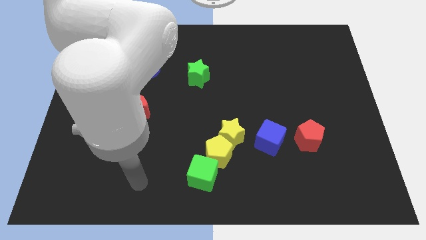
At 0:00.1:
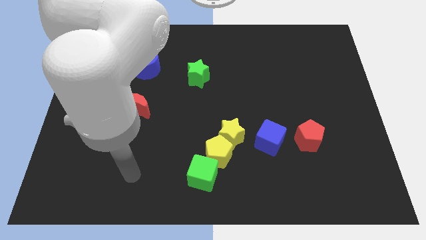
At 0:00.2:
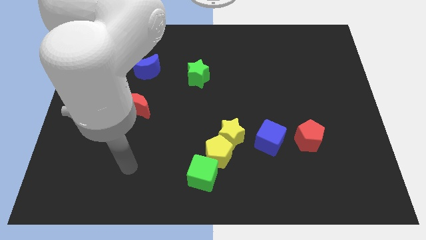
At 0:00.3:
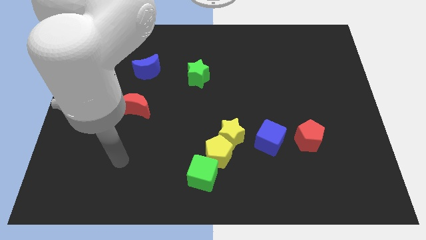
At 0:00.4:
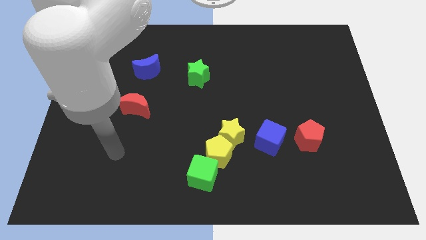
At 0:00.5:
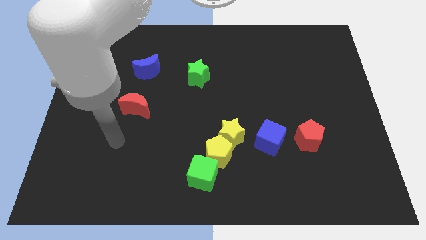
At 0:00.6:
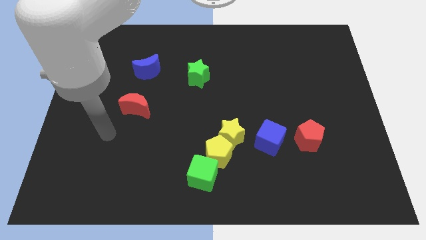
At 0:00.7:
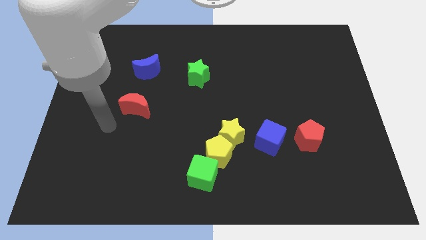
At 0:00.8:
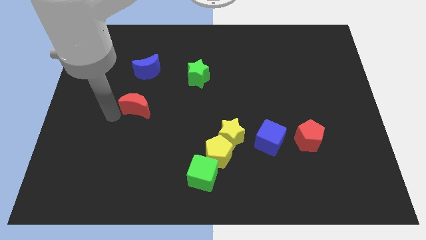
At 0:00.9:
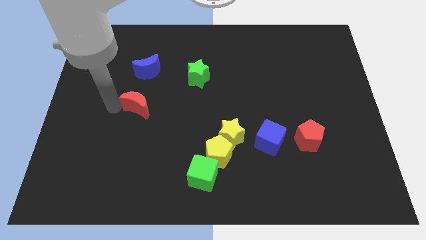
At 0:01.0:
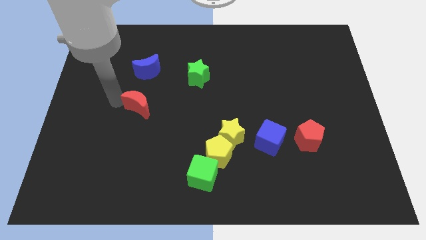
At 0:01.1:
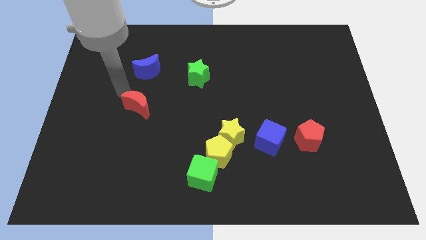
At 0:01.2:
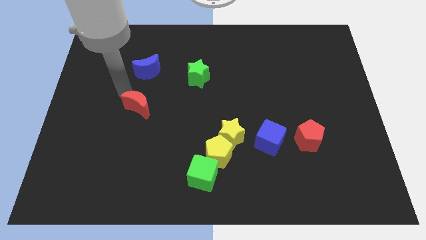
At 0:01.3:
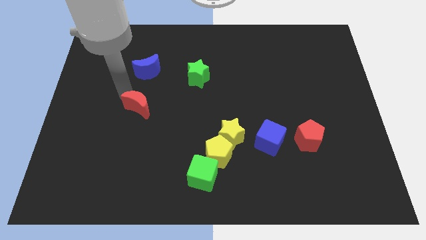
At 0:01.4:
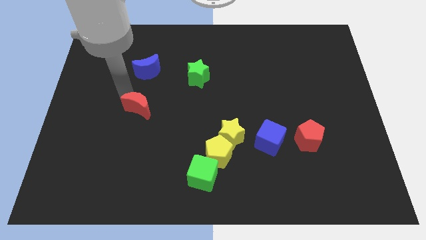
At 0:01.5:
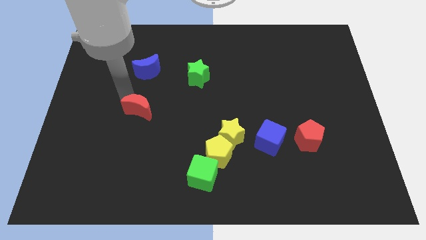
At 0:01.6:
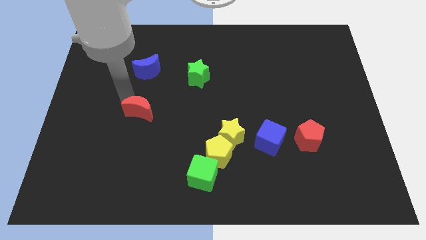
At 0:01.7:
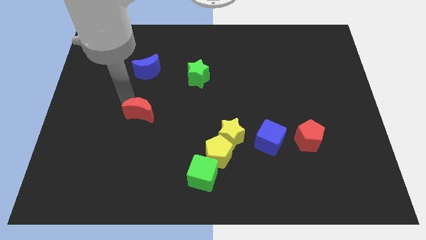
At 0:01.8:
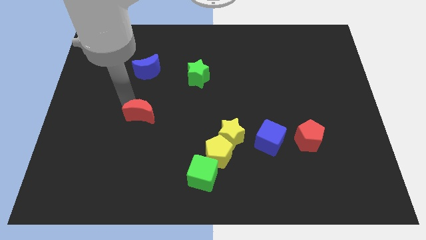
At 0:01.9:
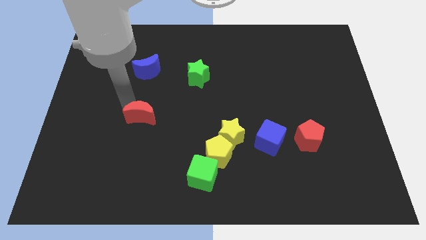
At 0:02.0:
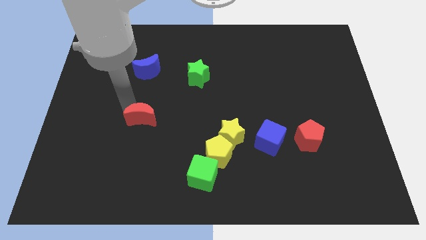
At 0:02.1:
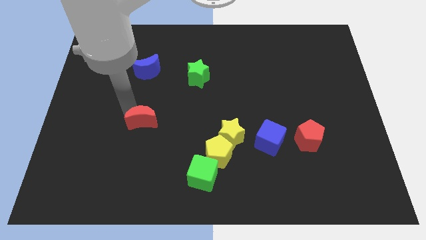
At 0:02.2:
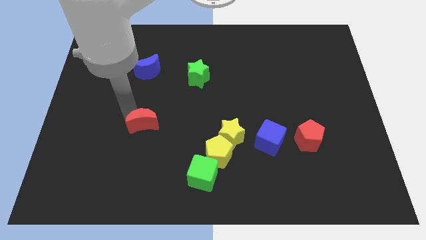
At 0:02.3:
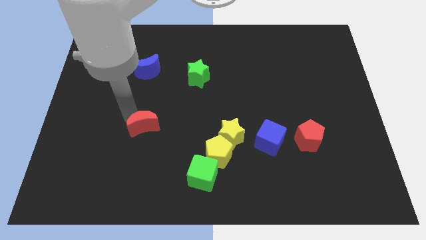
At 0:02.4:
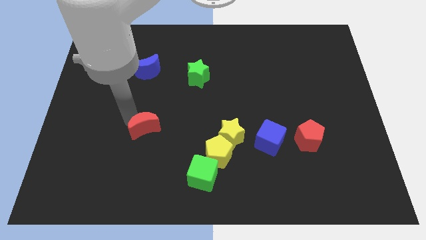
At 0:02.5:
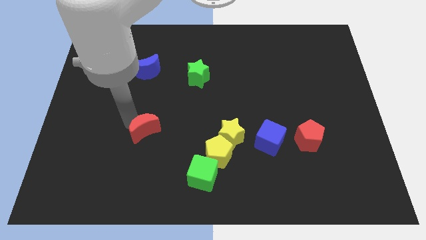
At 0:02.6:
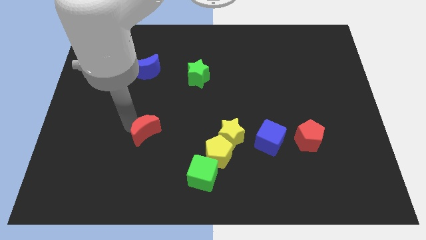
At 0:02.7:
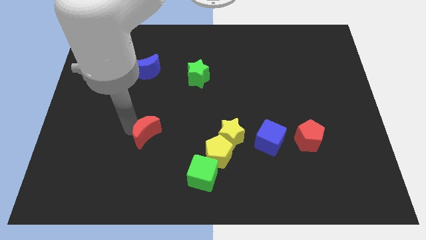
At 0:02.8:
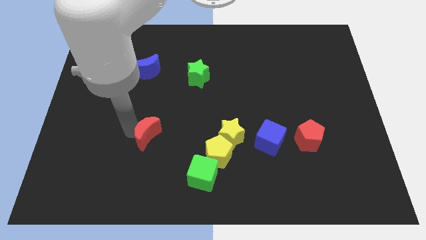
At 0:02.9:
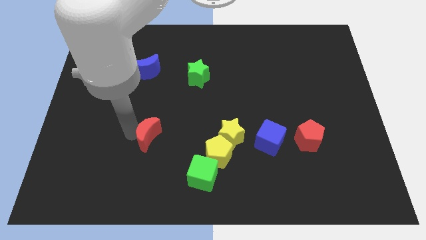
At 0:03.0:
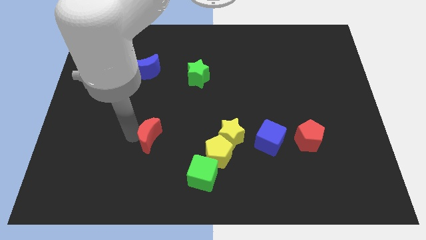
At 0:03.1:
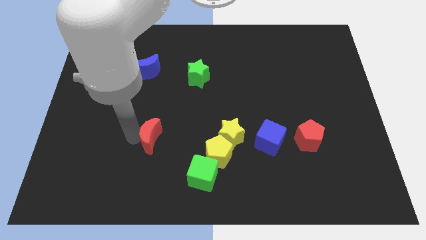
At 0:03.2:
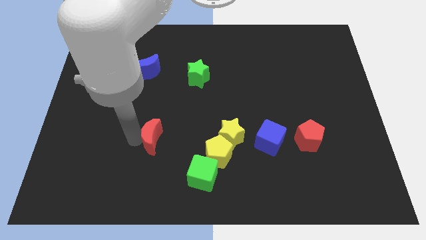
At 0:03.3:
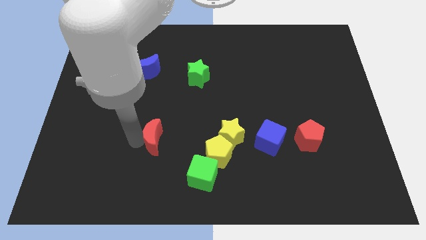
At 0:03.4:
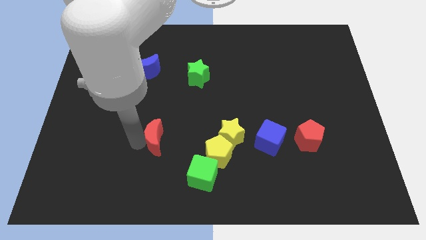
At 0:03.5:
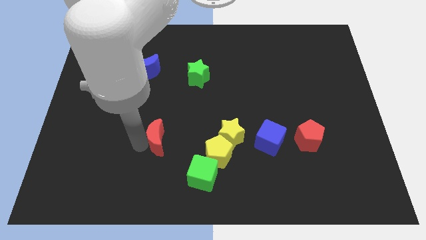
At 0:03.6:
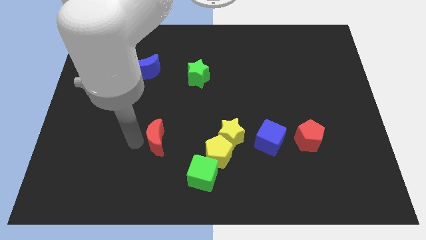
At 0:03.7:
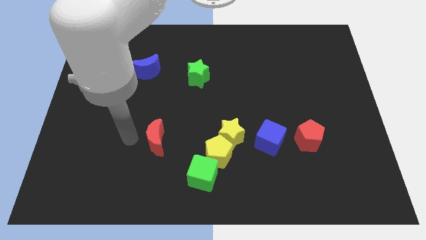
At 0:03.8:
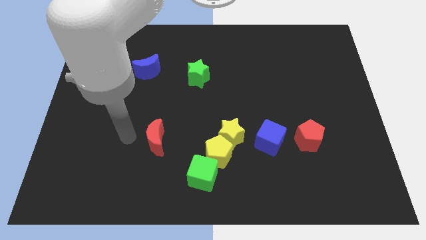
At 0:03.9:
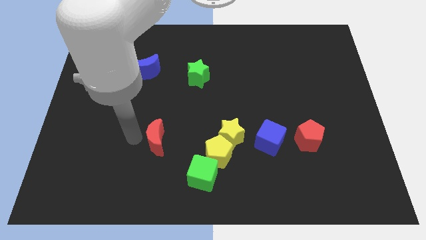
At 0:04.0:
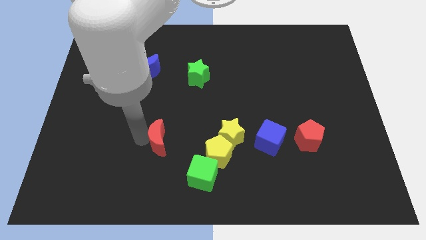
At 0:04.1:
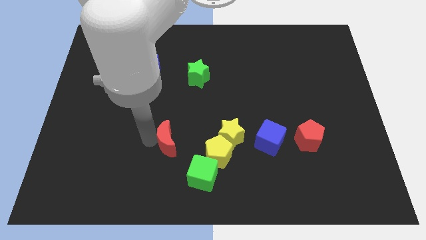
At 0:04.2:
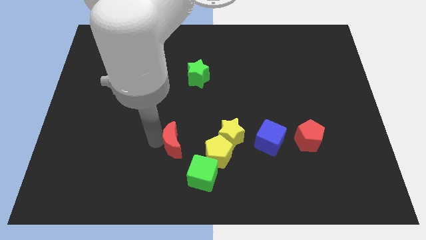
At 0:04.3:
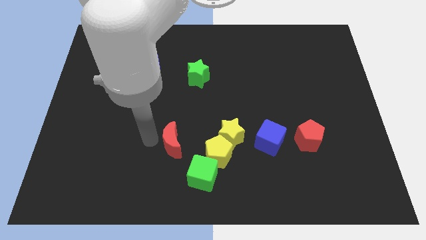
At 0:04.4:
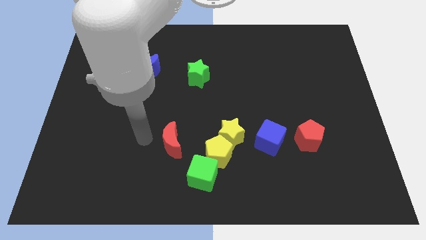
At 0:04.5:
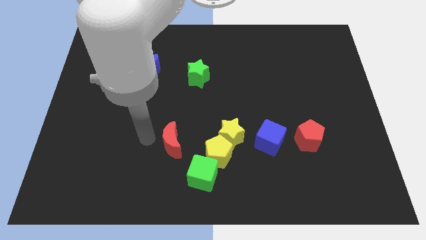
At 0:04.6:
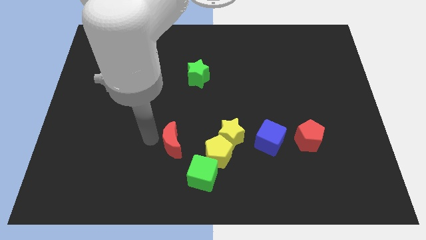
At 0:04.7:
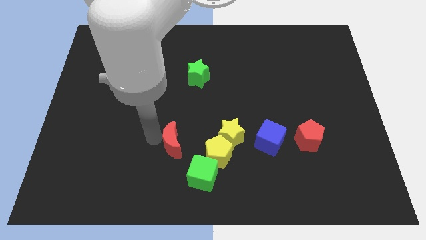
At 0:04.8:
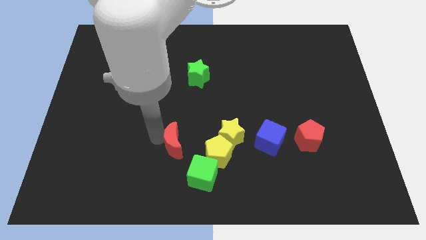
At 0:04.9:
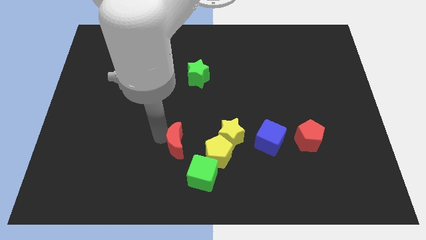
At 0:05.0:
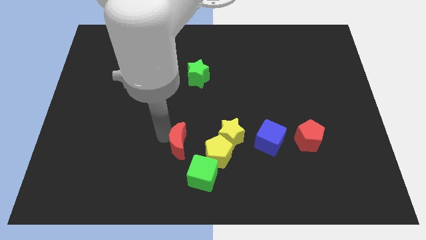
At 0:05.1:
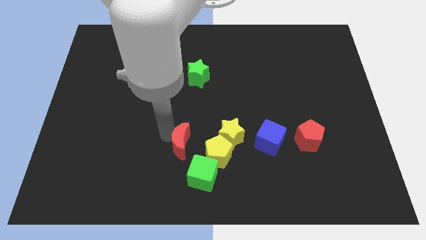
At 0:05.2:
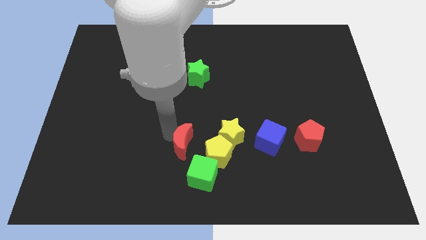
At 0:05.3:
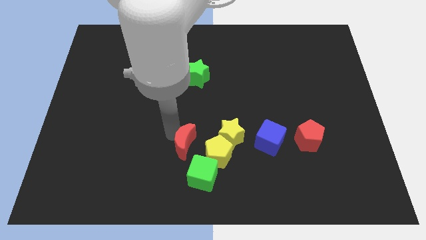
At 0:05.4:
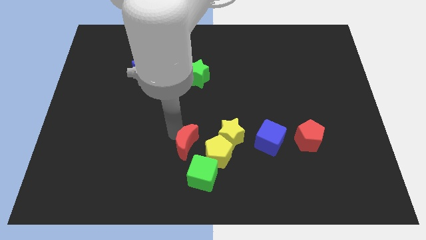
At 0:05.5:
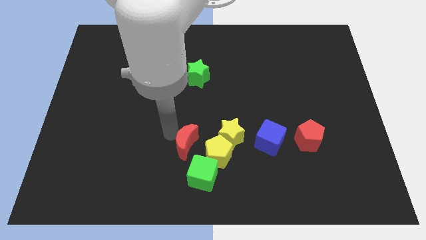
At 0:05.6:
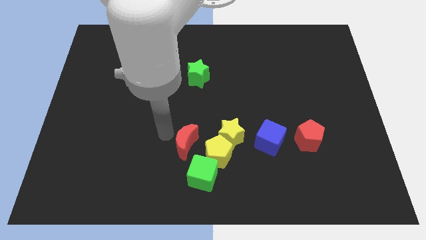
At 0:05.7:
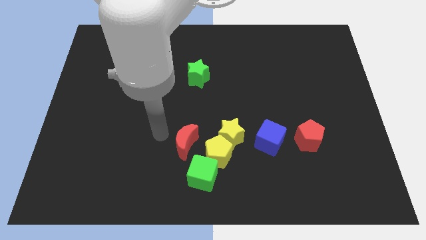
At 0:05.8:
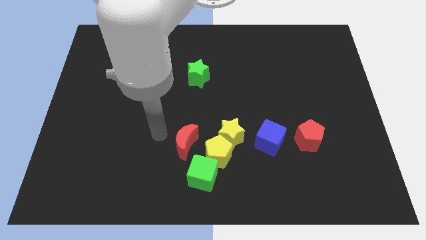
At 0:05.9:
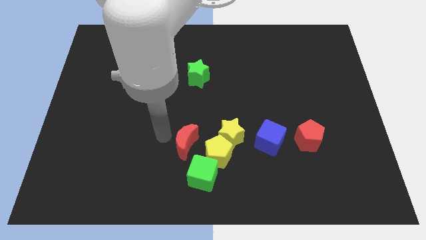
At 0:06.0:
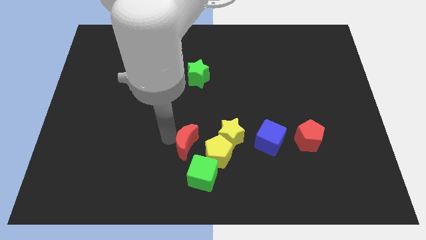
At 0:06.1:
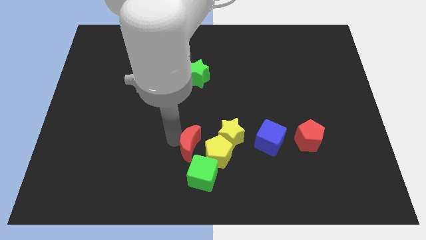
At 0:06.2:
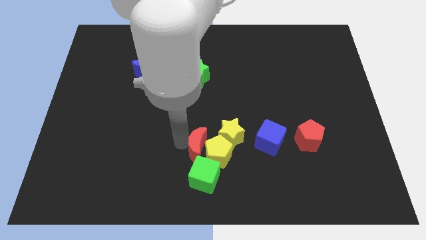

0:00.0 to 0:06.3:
slide the red moon to the yellow pentagon

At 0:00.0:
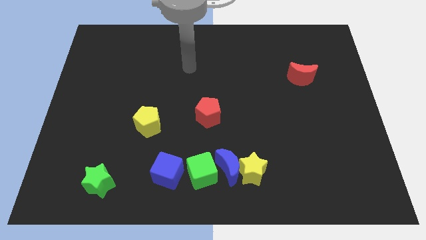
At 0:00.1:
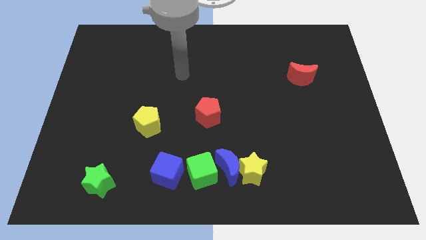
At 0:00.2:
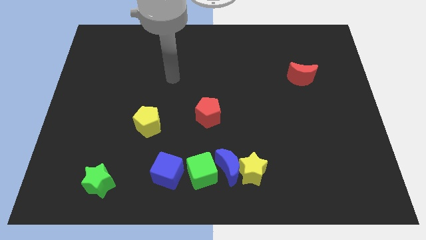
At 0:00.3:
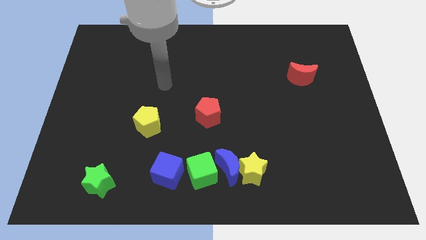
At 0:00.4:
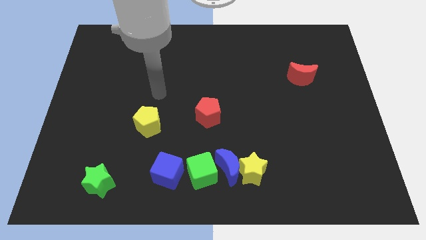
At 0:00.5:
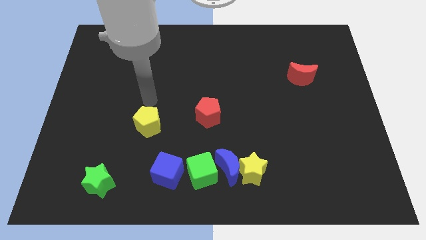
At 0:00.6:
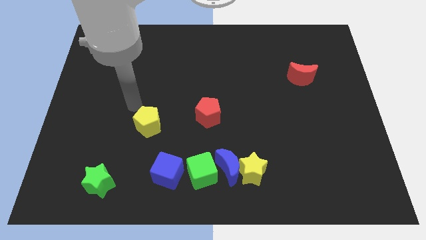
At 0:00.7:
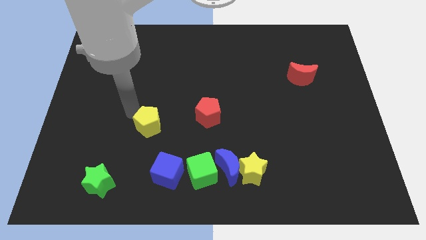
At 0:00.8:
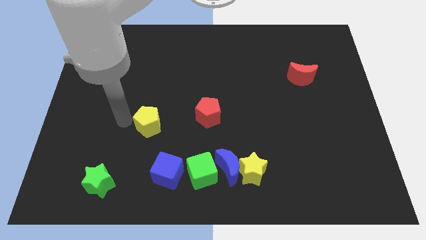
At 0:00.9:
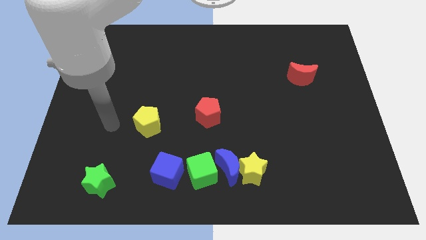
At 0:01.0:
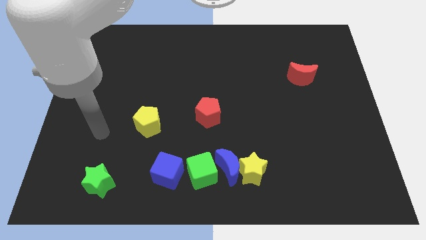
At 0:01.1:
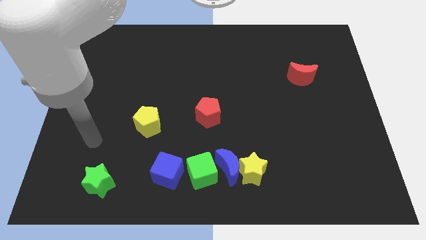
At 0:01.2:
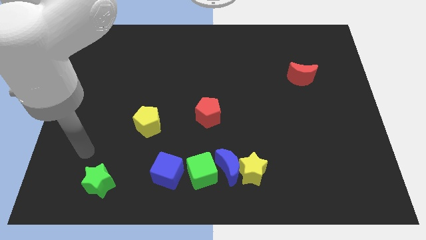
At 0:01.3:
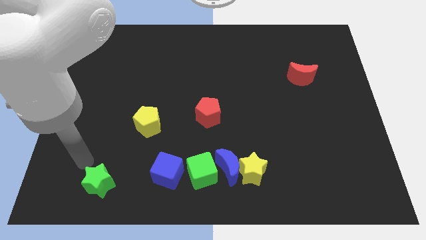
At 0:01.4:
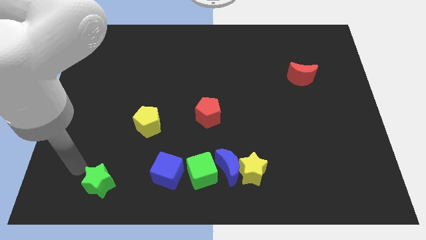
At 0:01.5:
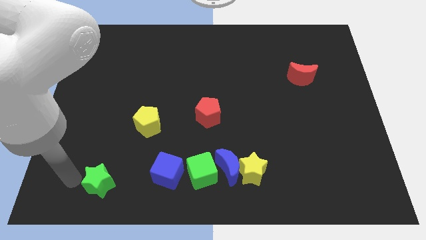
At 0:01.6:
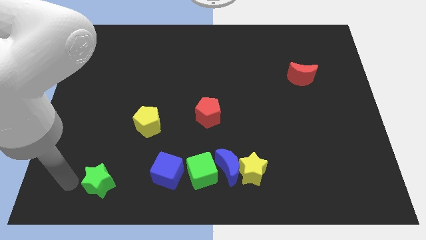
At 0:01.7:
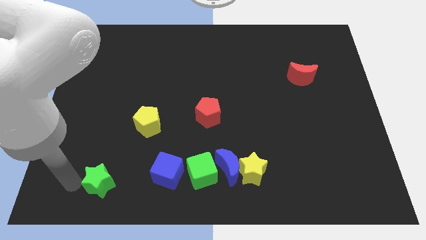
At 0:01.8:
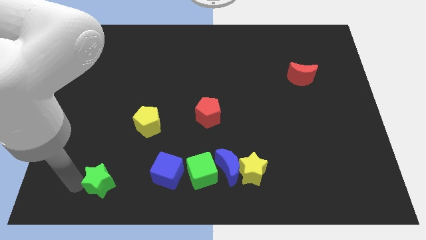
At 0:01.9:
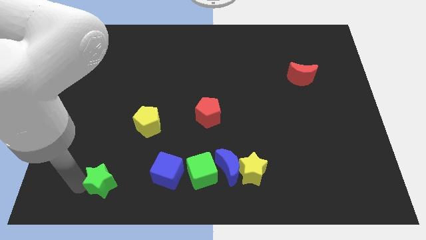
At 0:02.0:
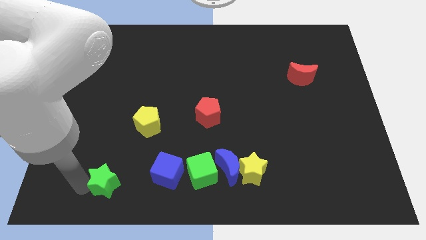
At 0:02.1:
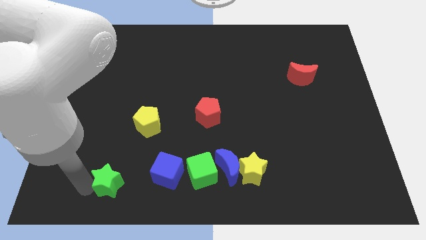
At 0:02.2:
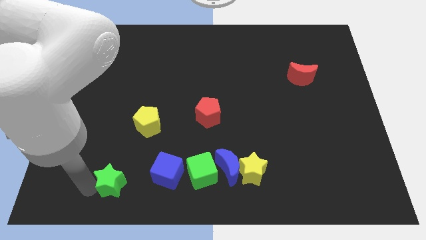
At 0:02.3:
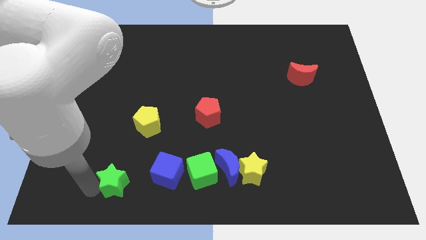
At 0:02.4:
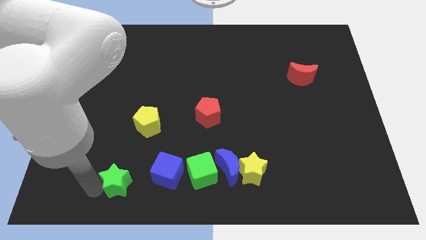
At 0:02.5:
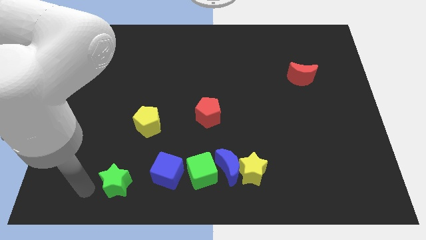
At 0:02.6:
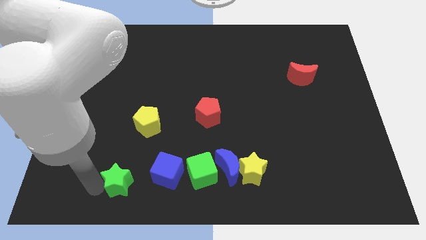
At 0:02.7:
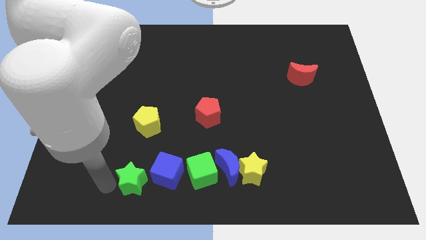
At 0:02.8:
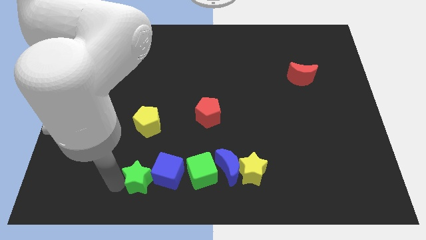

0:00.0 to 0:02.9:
slide the green star close to the blue cube
